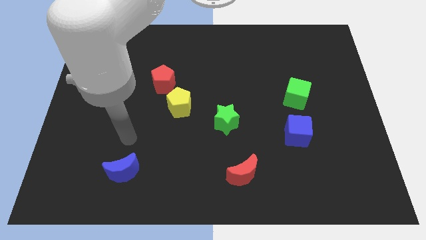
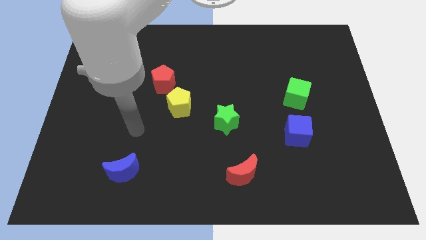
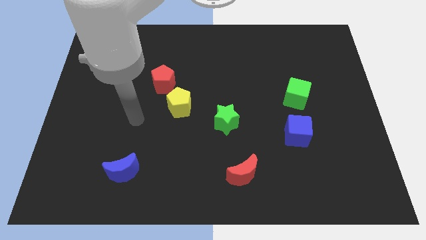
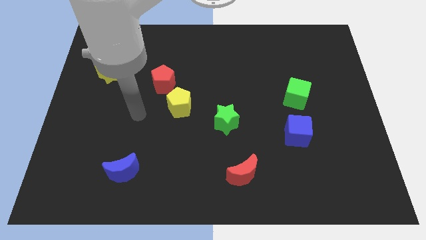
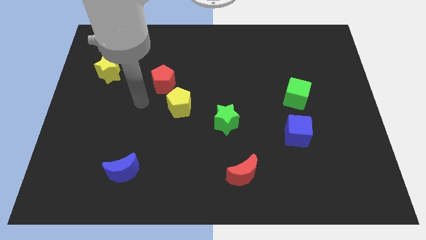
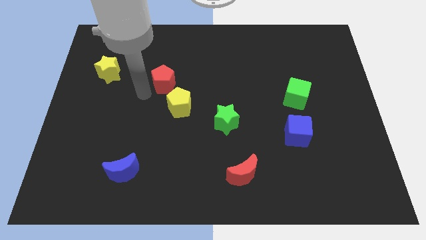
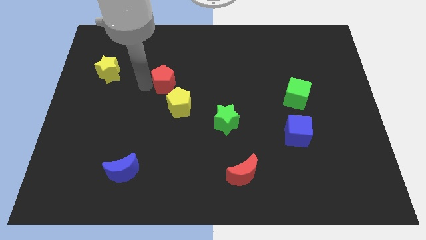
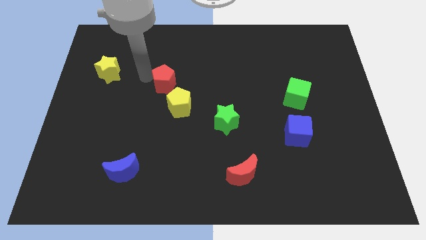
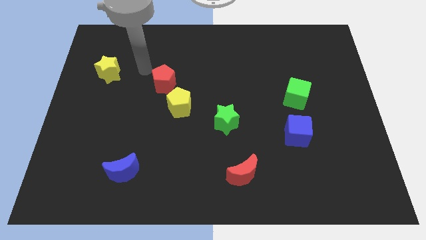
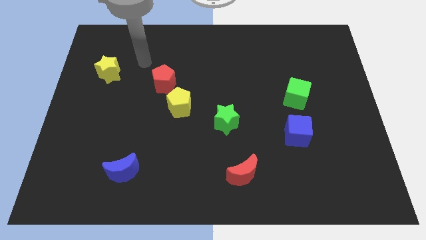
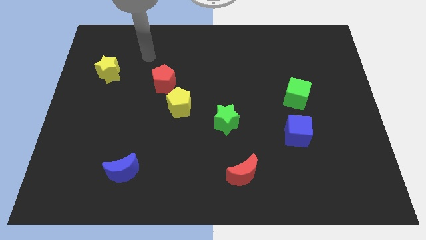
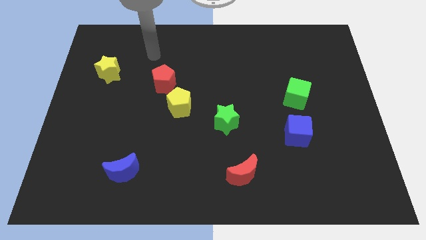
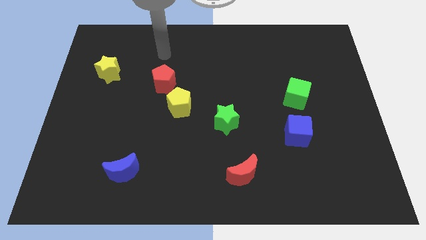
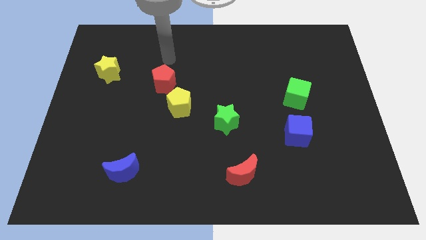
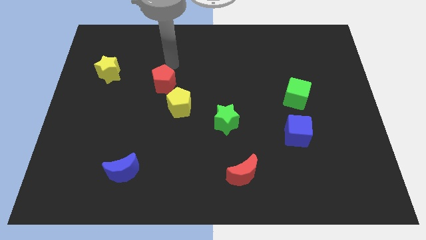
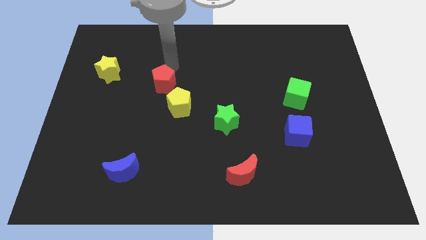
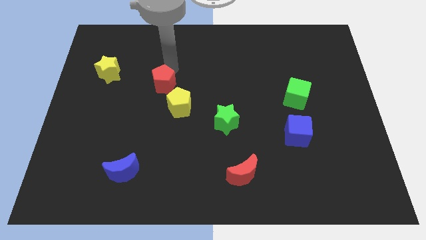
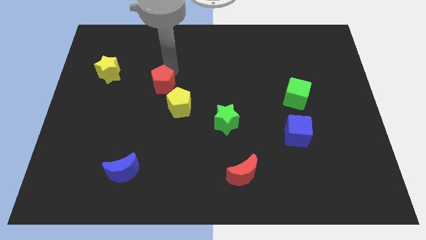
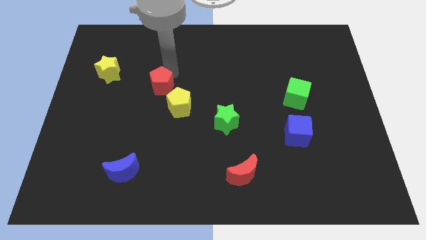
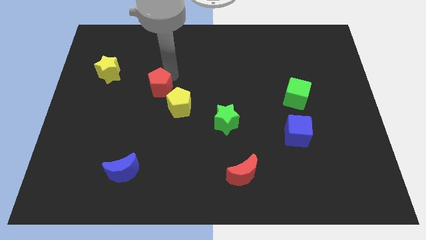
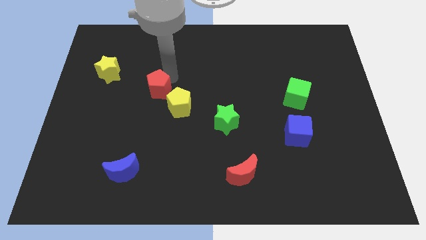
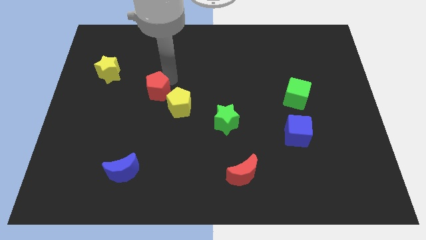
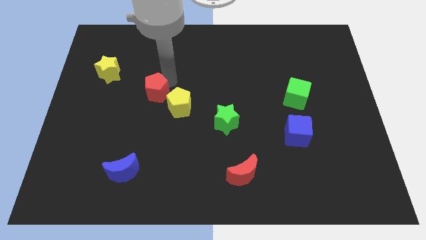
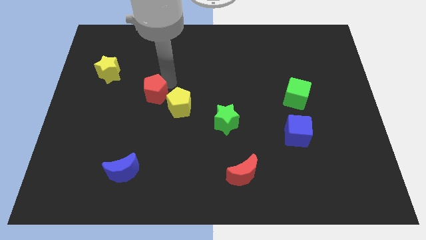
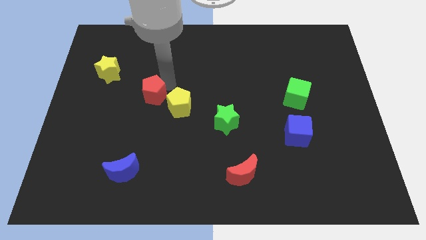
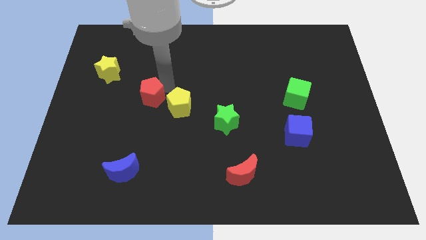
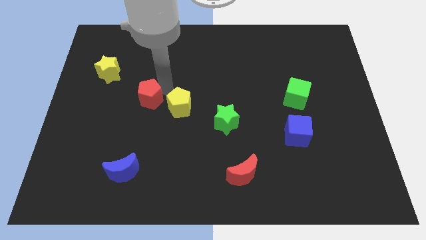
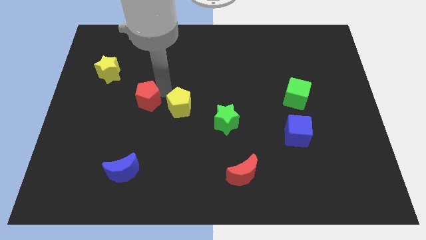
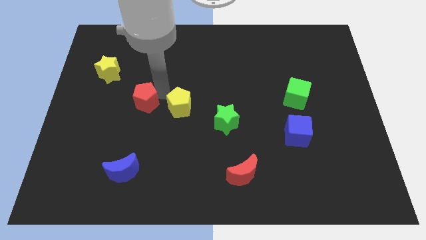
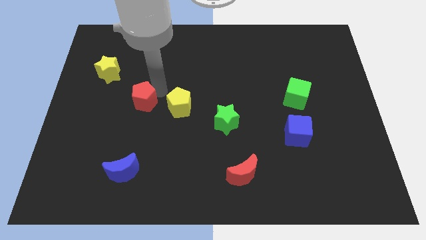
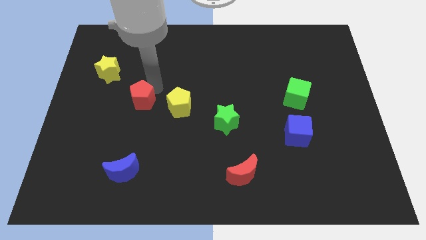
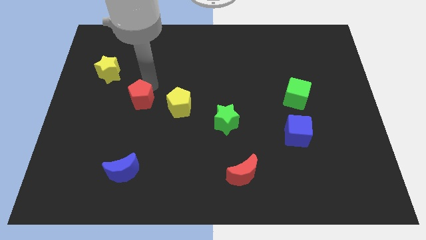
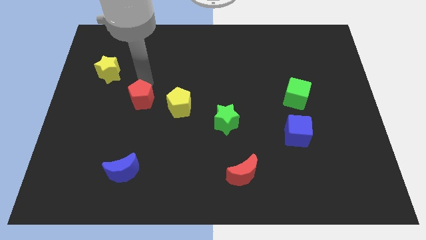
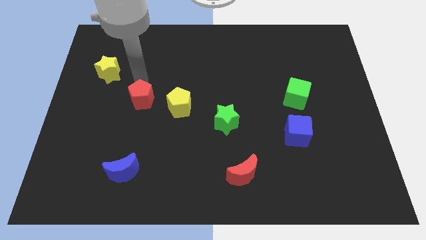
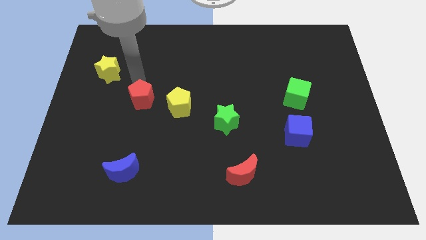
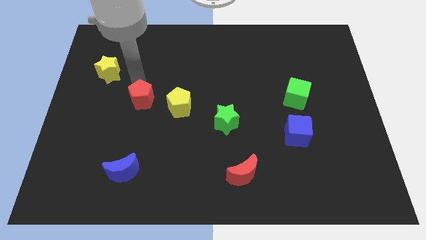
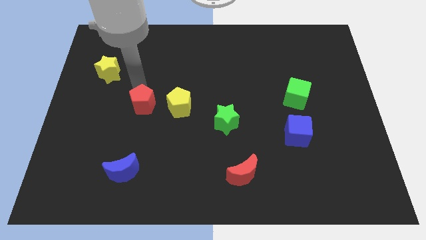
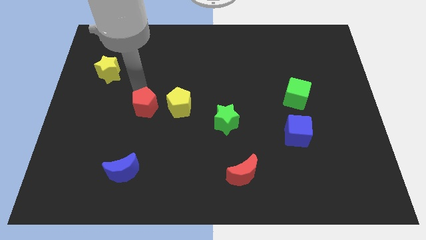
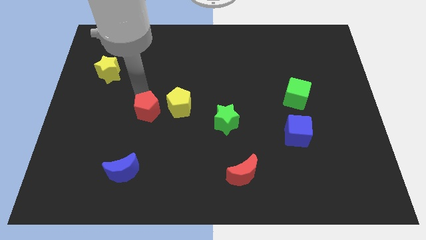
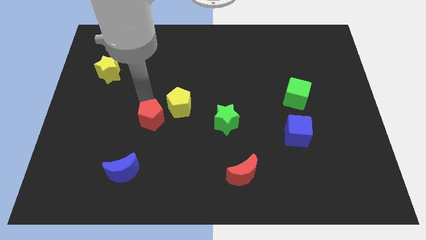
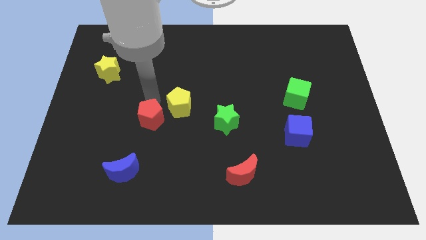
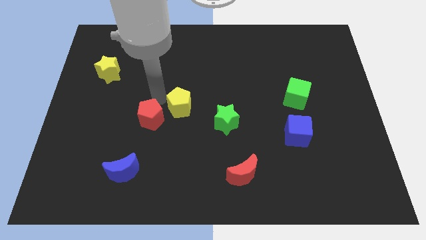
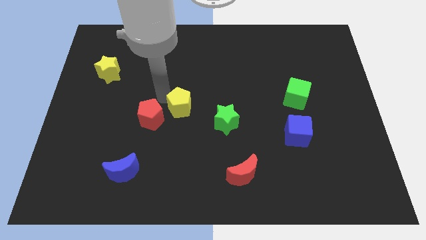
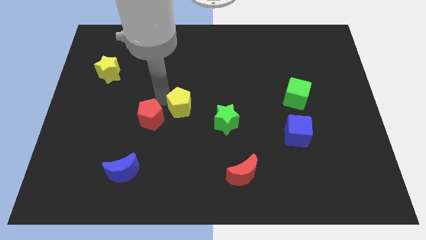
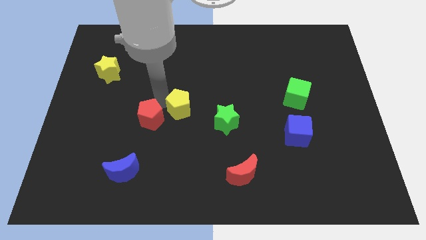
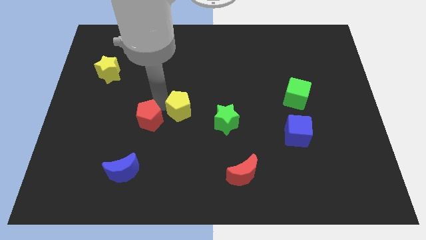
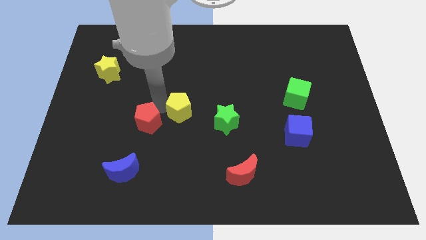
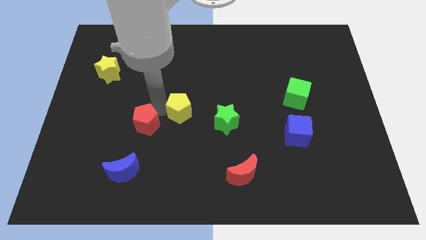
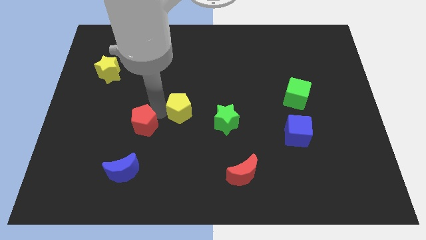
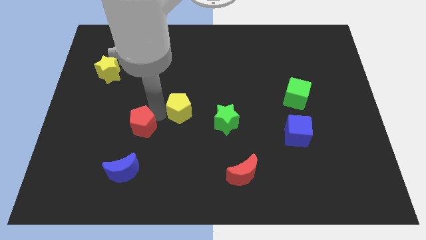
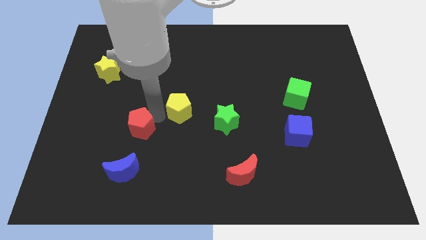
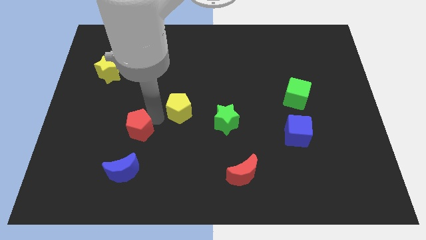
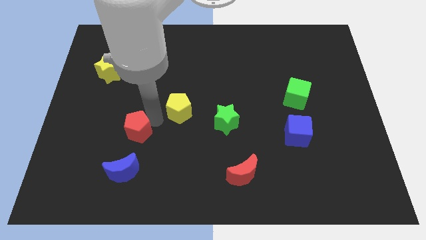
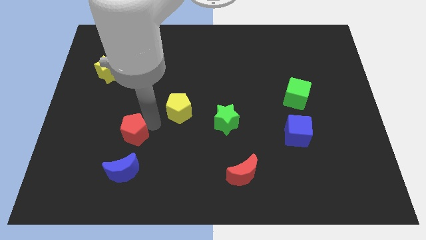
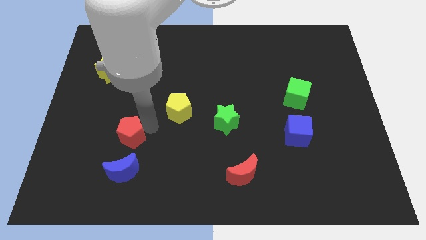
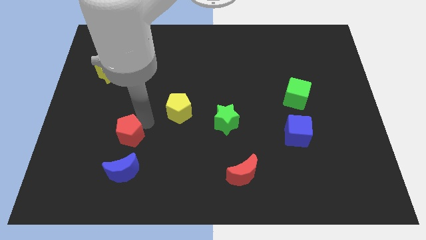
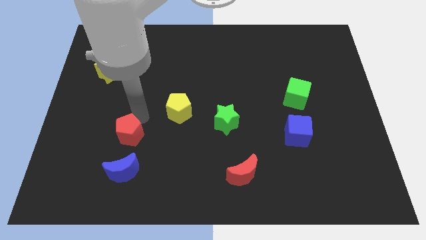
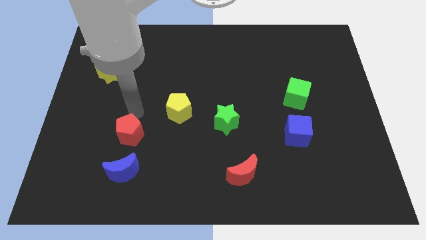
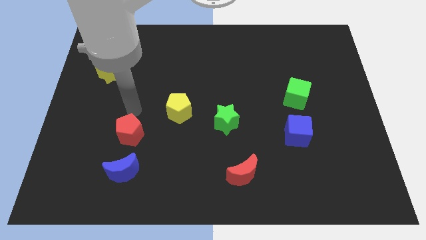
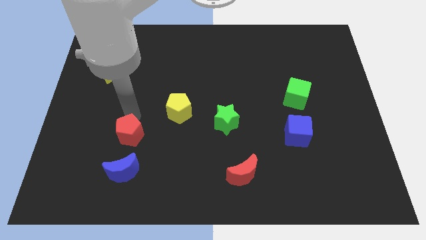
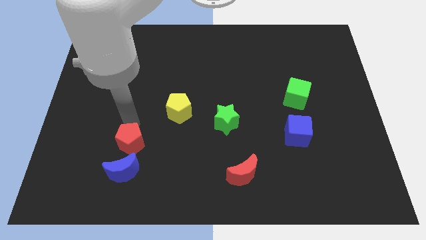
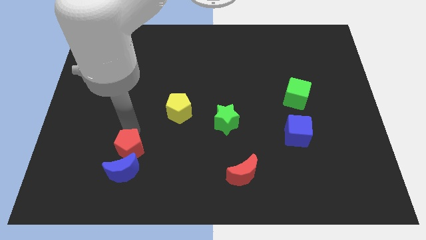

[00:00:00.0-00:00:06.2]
push the red pentagon close to the blue moon

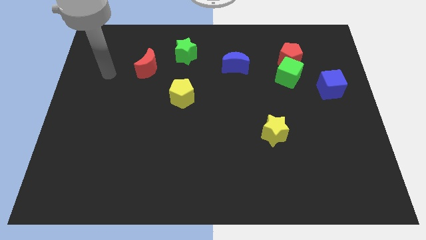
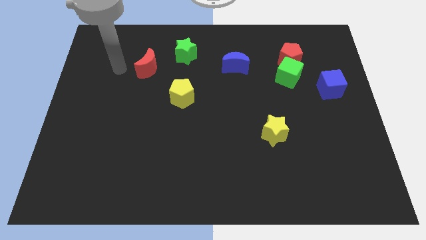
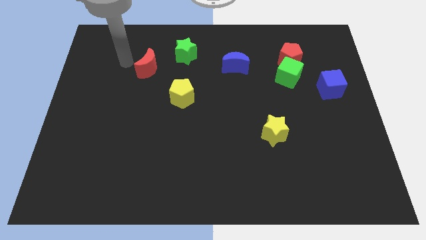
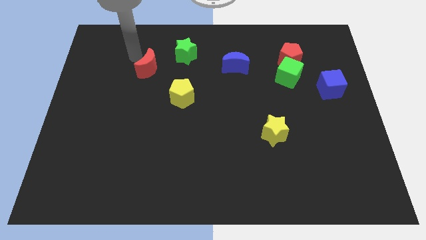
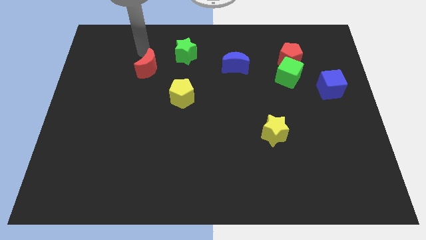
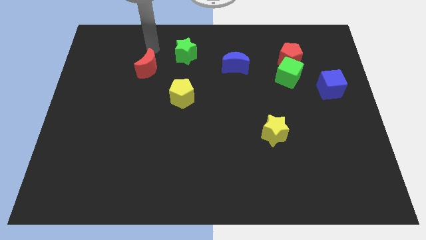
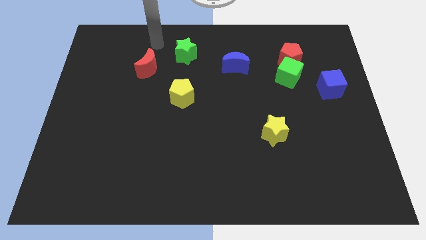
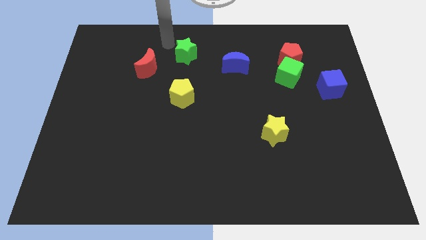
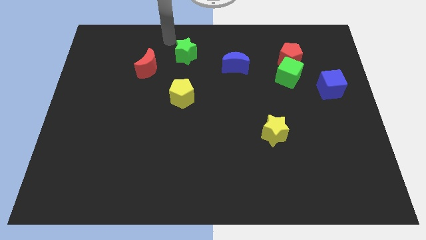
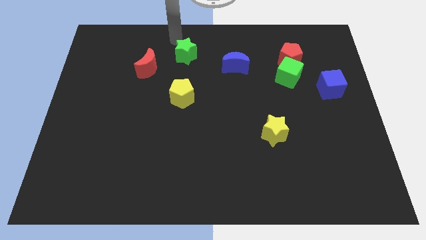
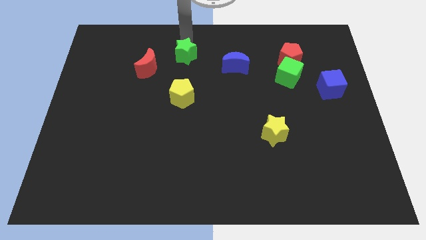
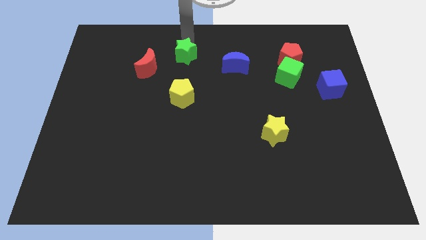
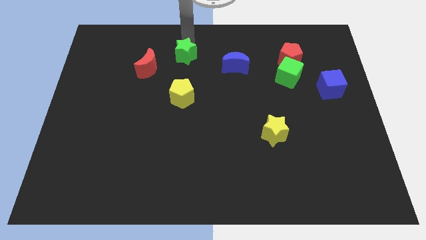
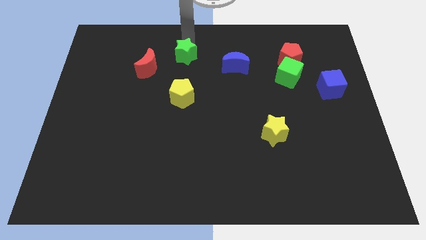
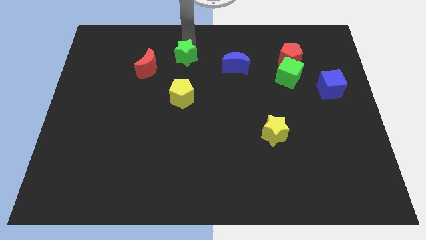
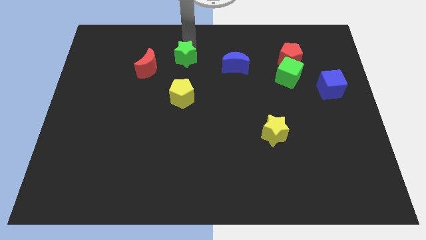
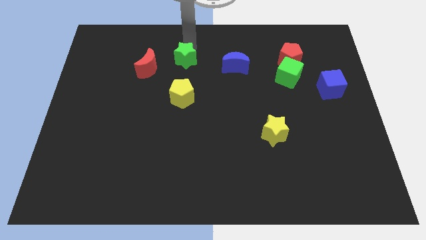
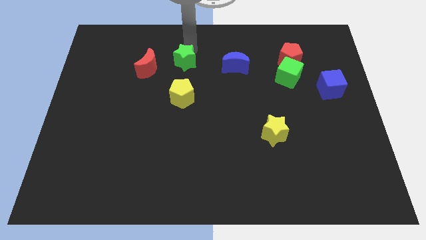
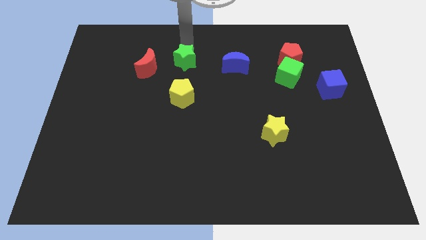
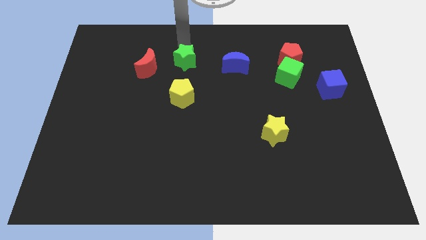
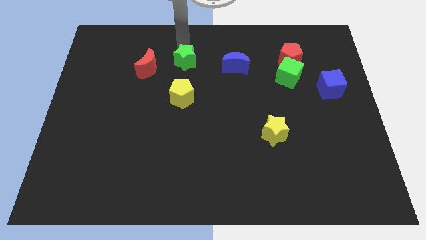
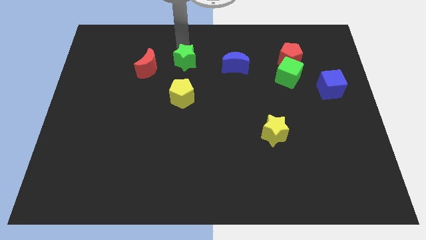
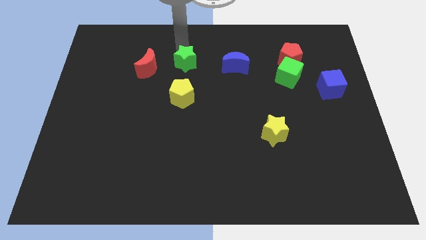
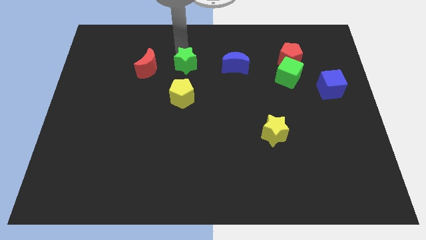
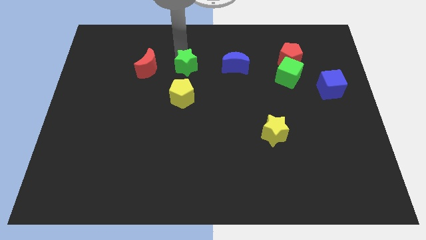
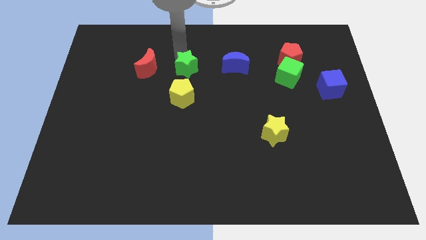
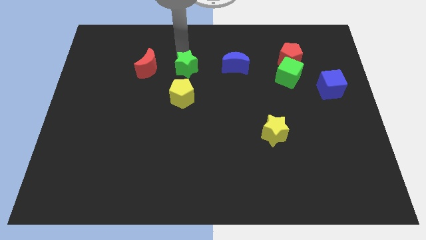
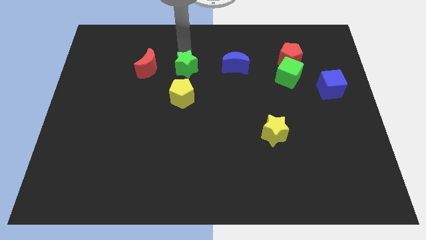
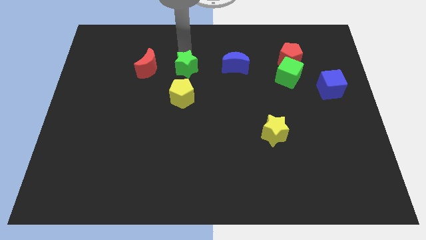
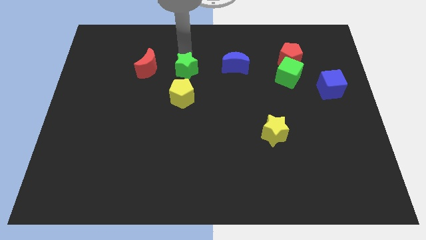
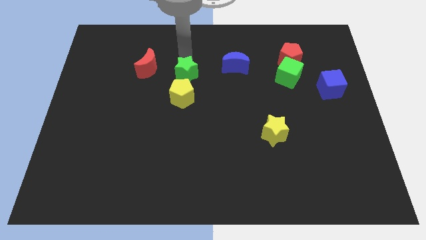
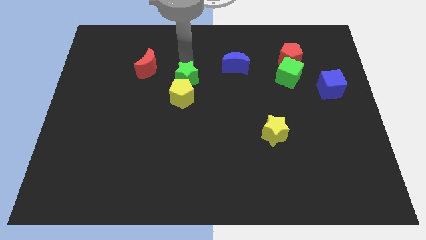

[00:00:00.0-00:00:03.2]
slide the green star next to the yellow pentagon
